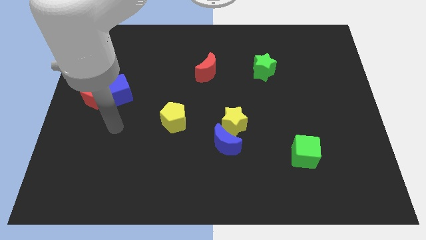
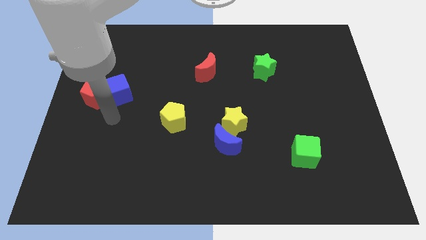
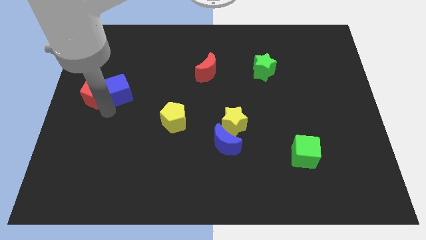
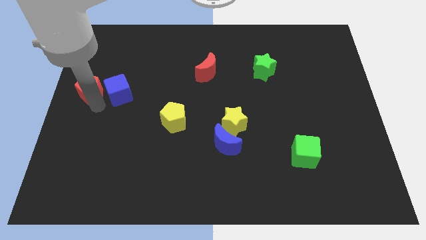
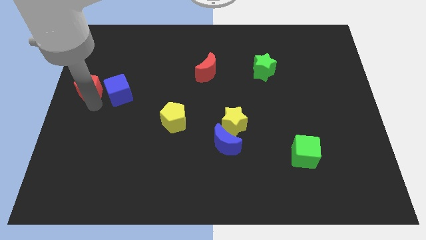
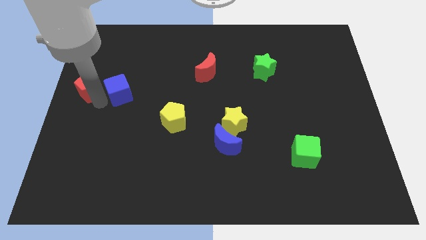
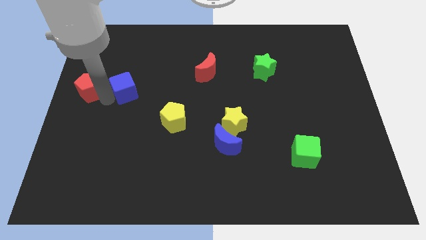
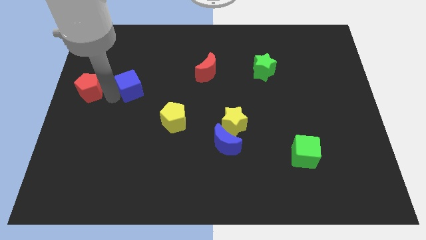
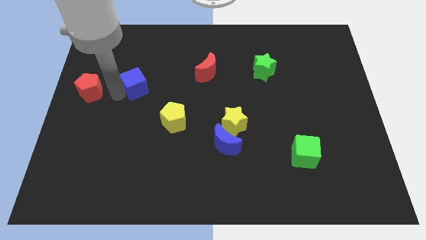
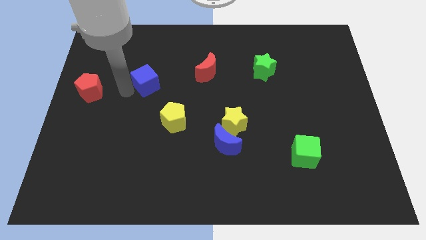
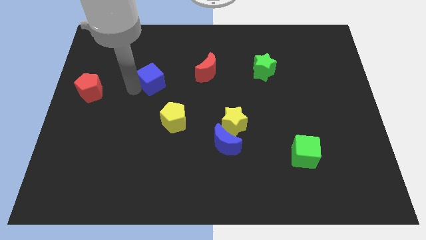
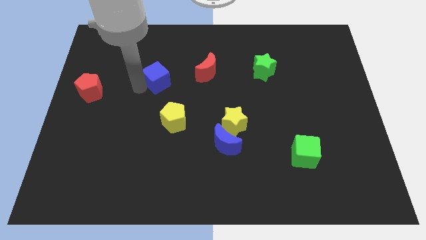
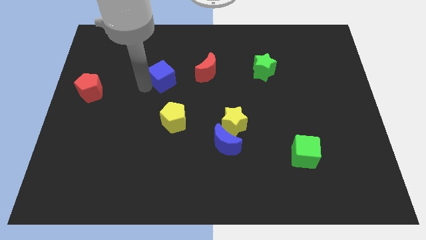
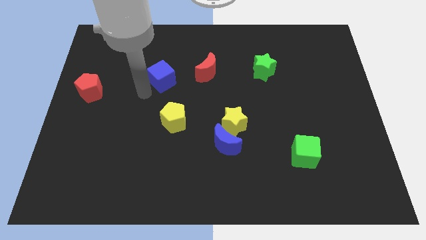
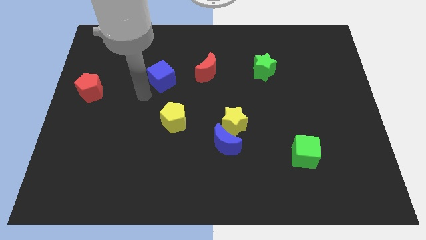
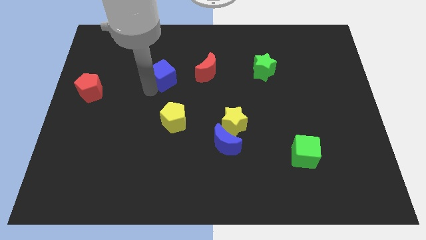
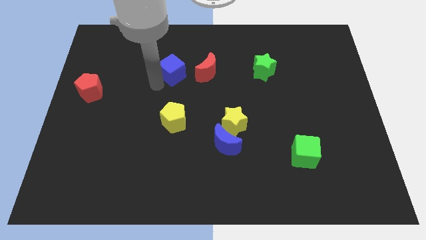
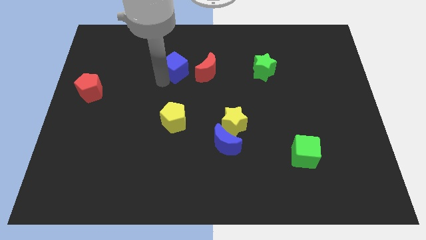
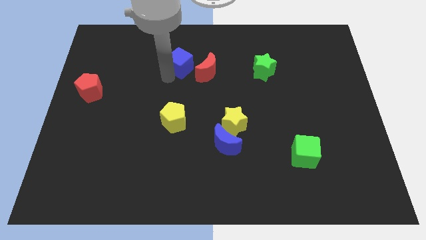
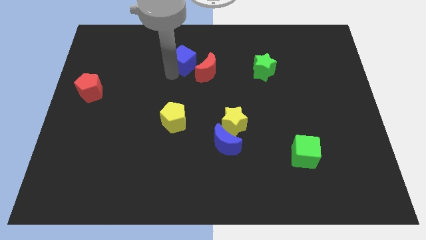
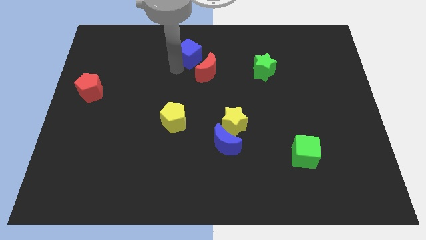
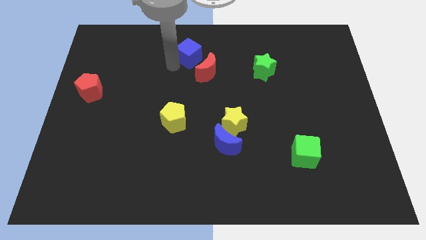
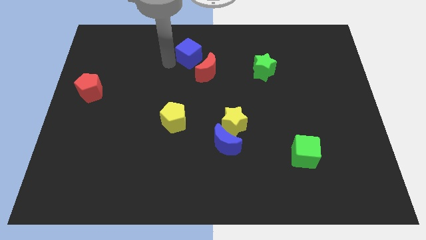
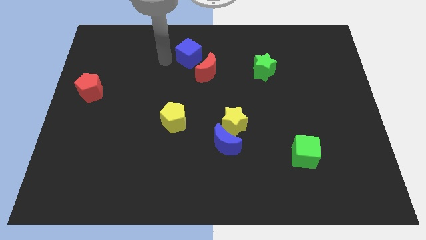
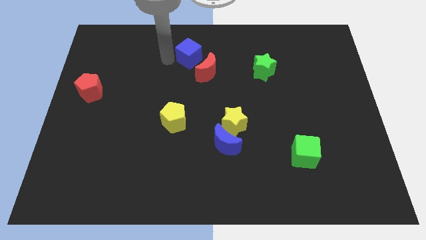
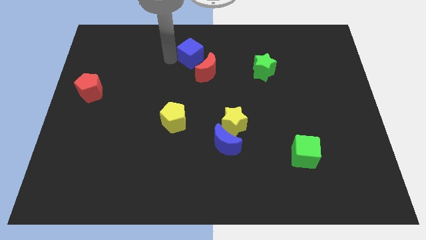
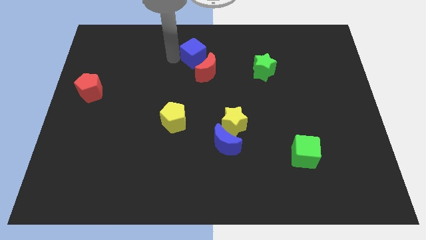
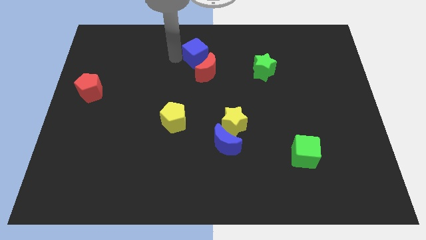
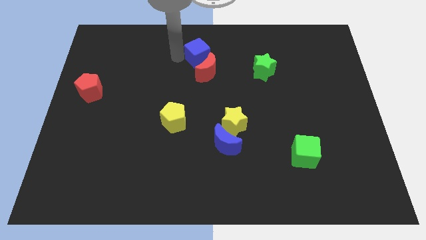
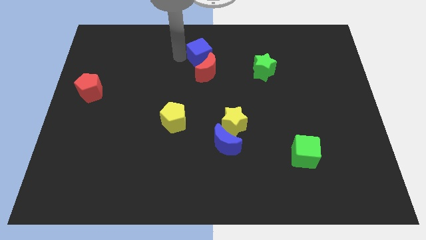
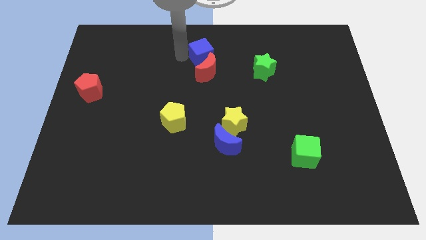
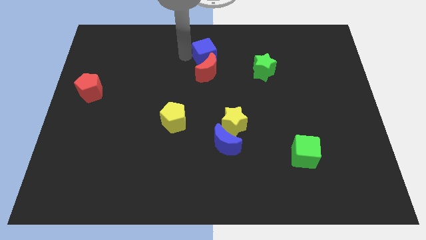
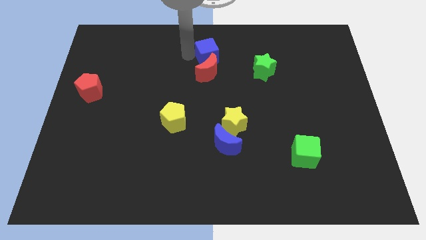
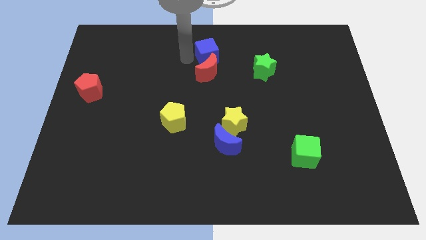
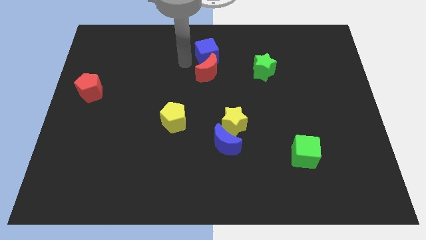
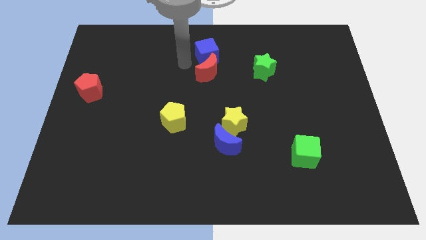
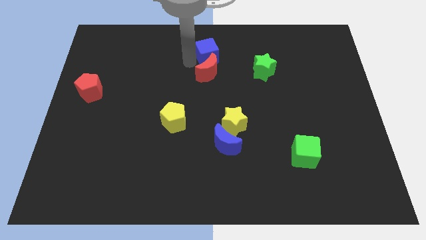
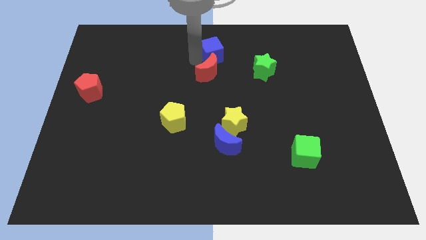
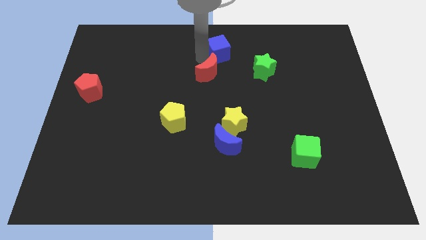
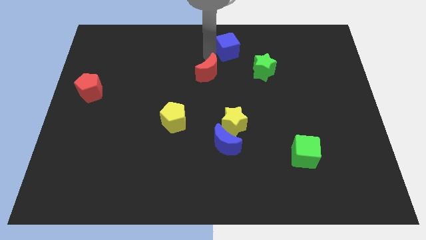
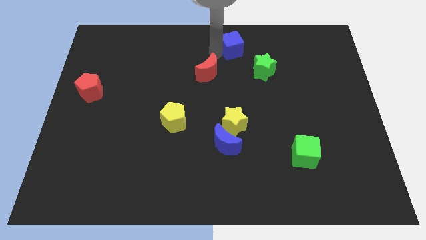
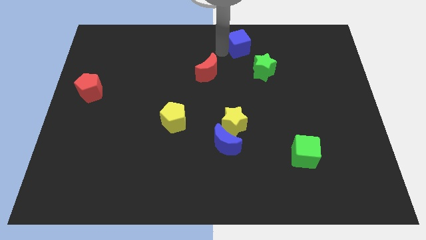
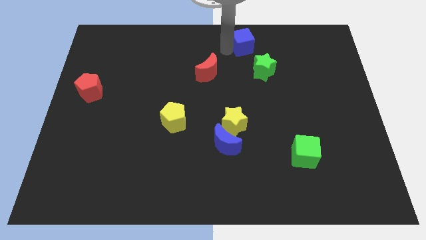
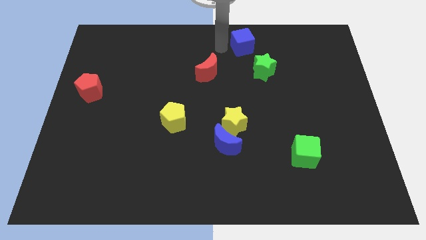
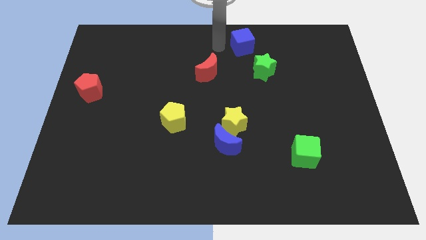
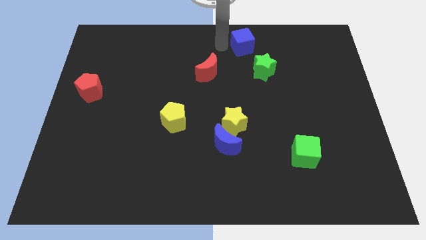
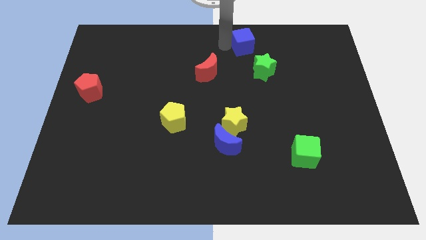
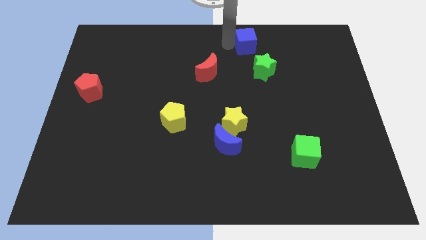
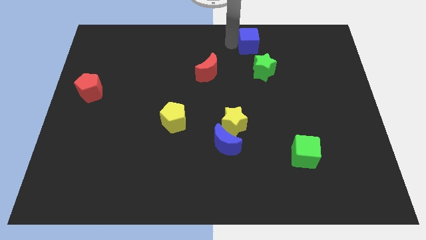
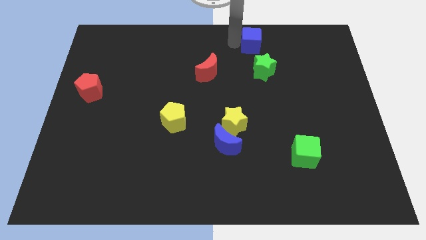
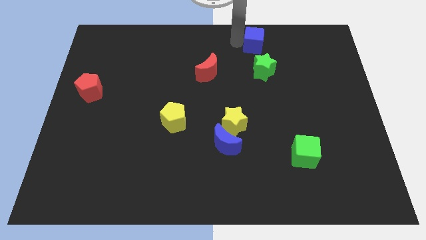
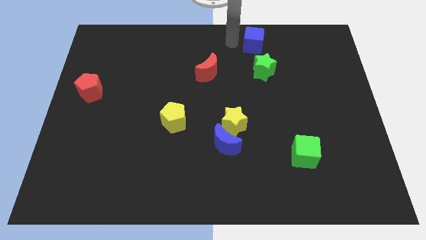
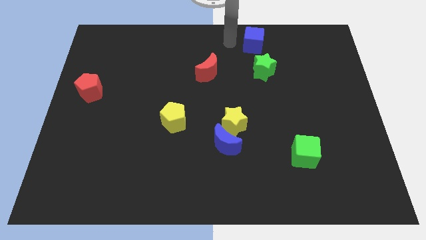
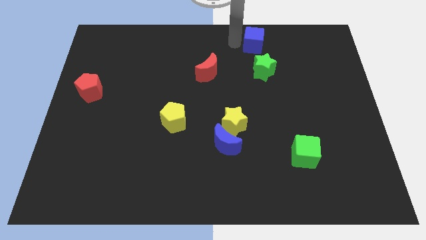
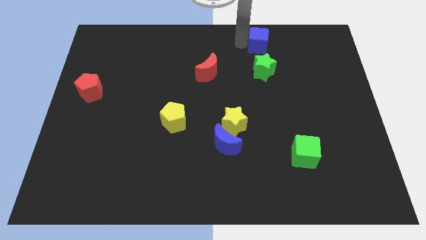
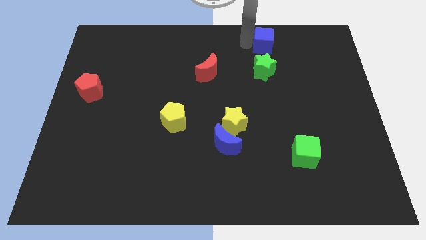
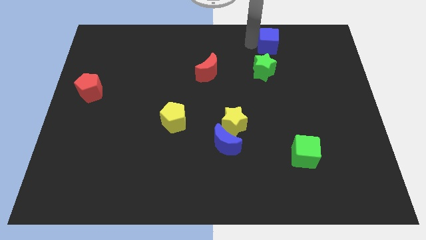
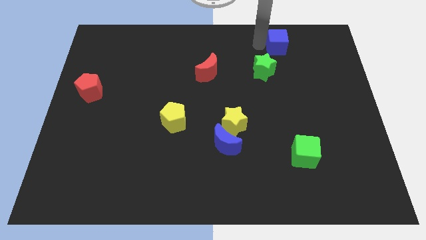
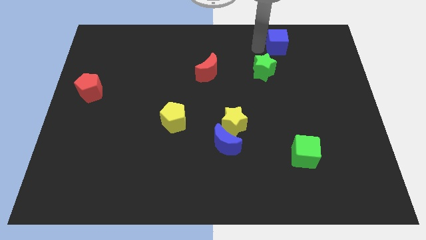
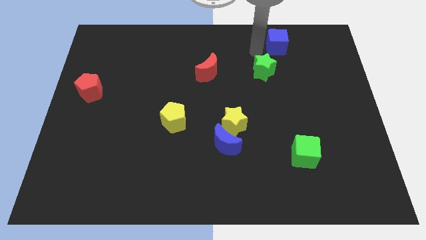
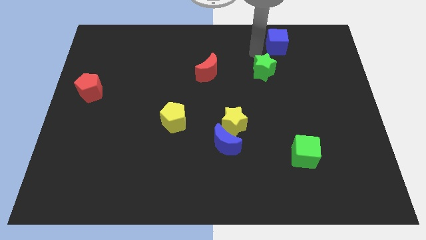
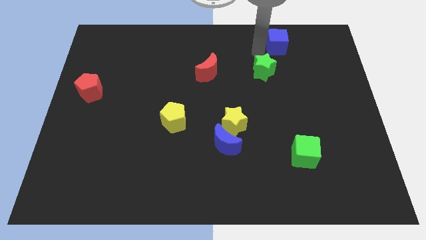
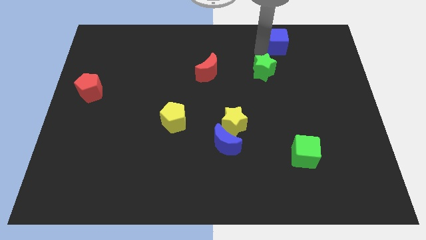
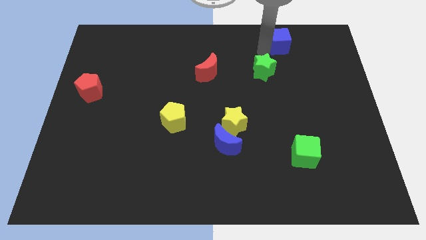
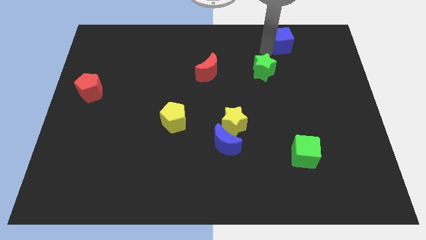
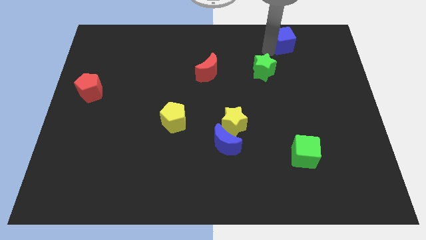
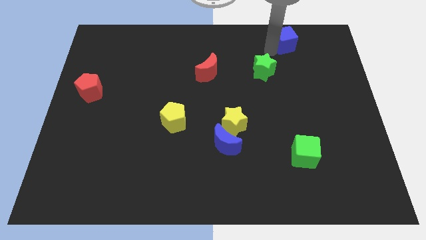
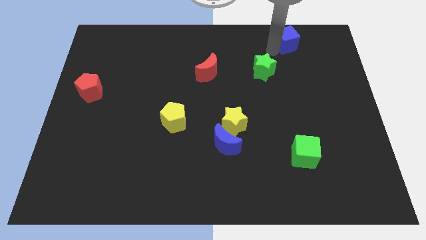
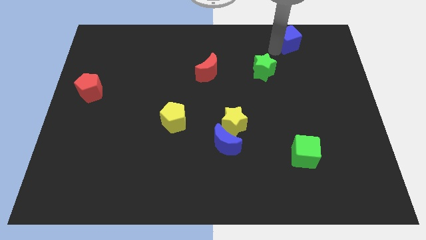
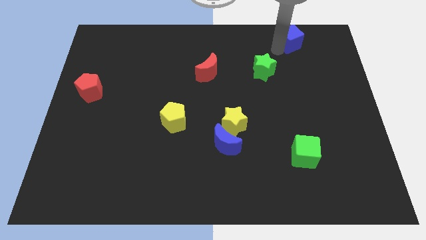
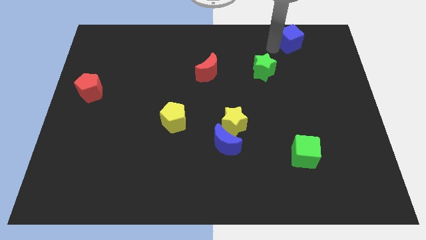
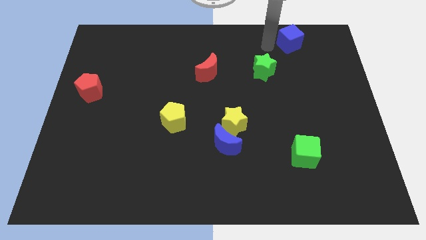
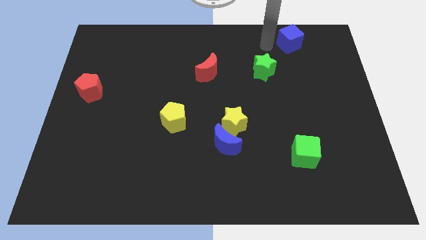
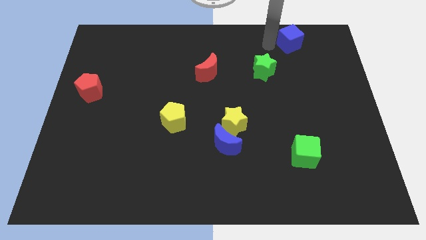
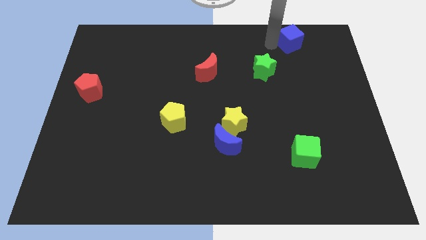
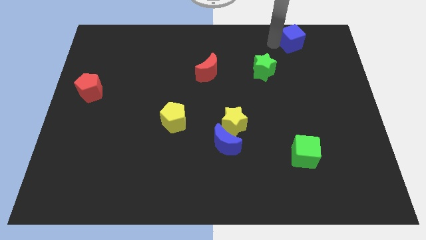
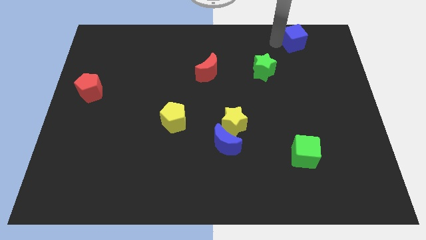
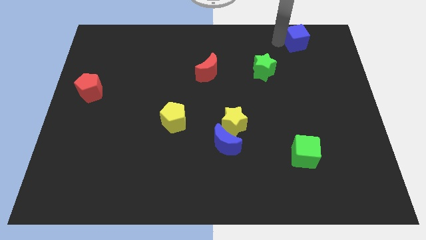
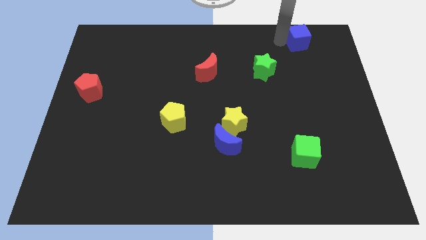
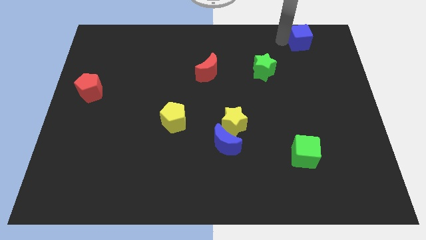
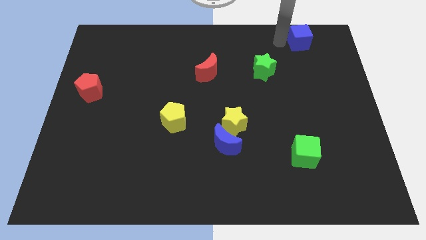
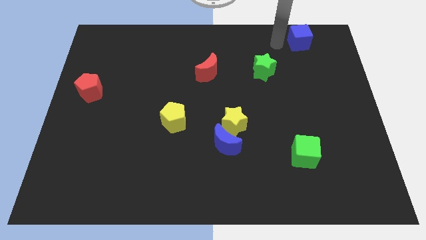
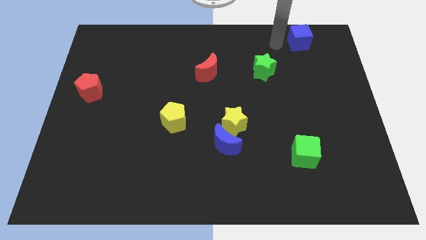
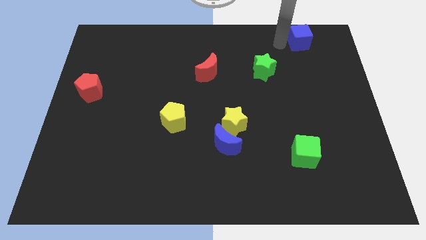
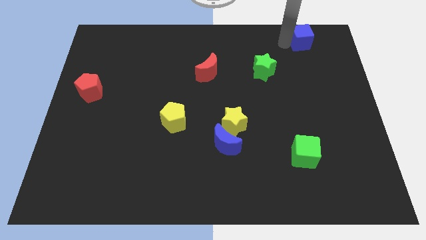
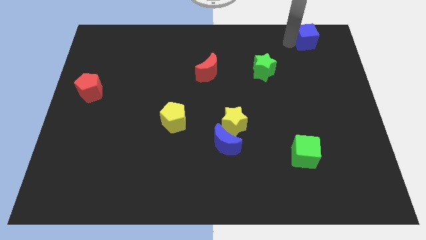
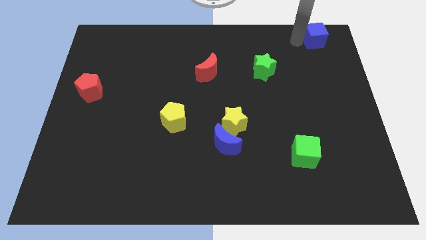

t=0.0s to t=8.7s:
put the blue cube to the upper right corner
